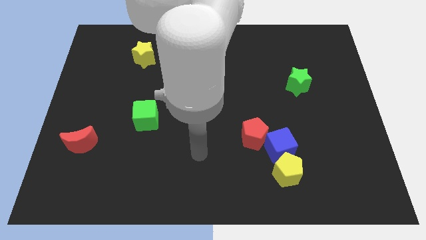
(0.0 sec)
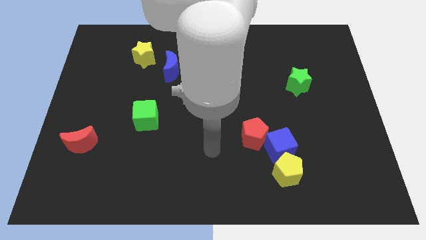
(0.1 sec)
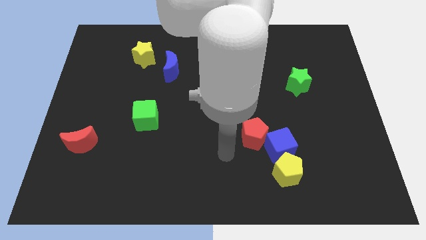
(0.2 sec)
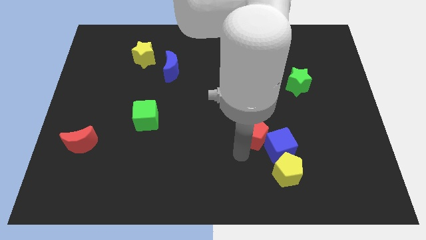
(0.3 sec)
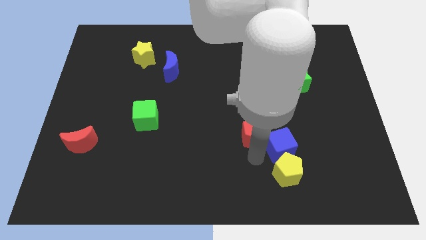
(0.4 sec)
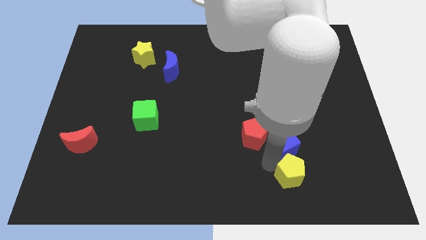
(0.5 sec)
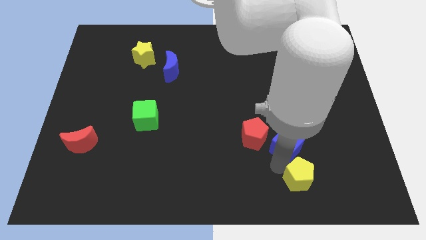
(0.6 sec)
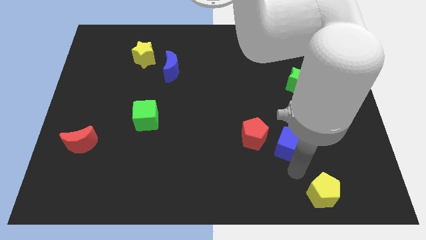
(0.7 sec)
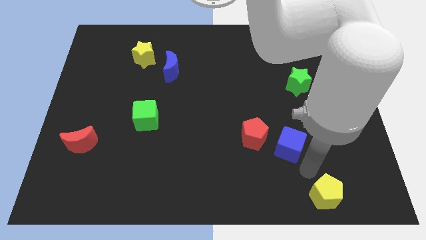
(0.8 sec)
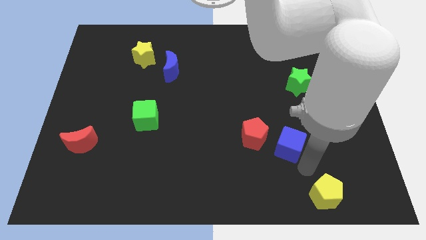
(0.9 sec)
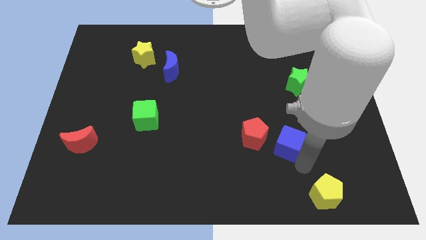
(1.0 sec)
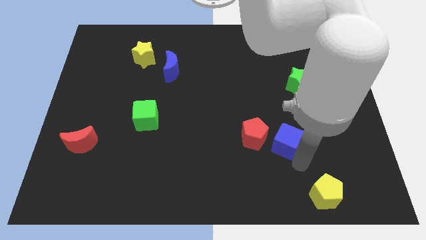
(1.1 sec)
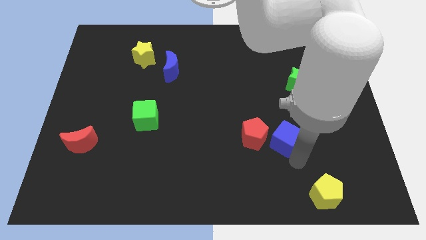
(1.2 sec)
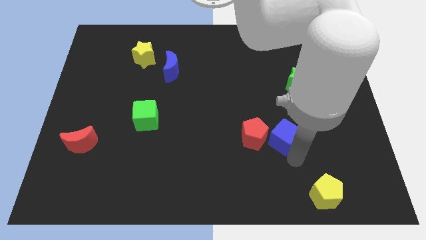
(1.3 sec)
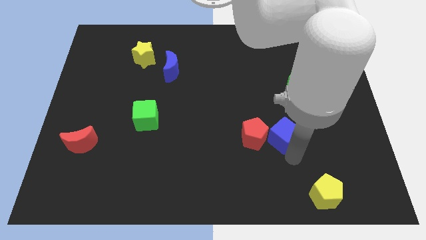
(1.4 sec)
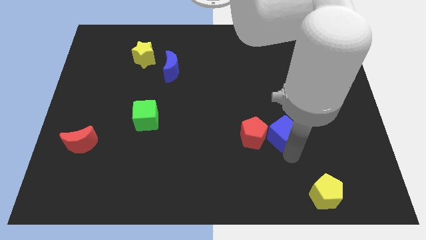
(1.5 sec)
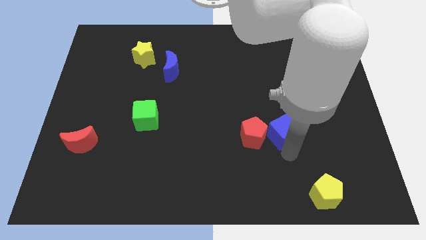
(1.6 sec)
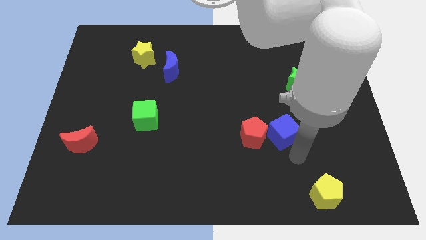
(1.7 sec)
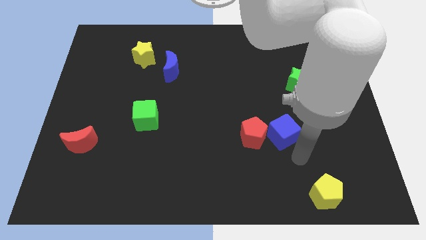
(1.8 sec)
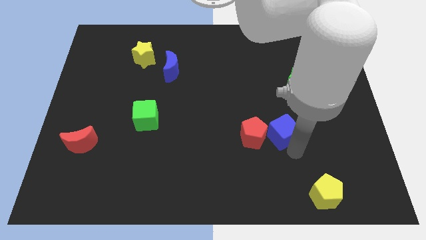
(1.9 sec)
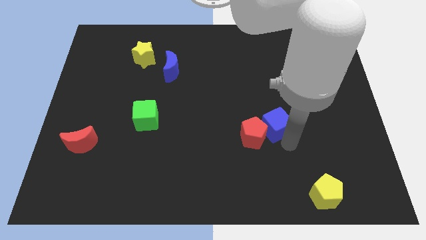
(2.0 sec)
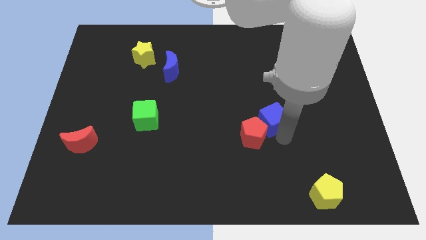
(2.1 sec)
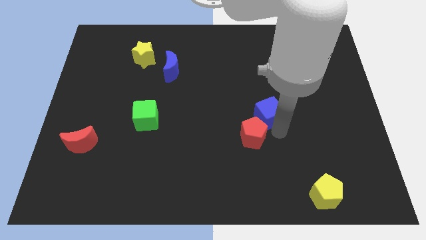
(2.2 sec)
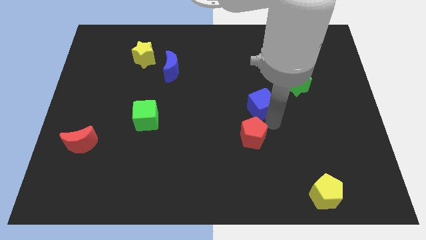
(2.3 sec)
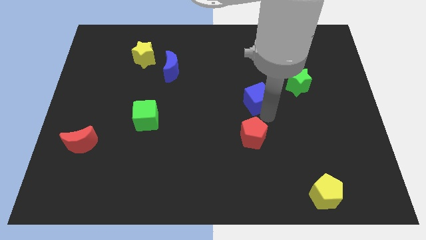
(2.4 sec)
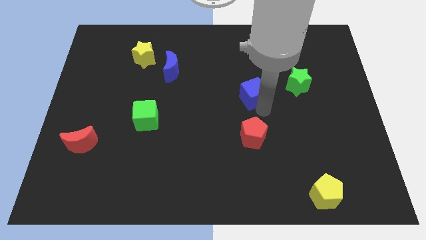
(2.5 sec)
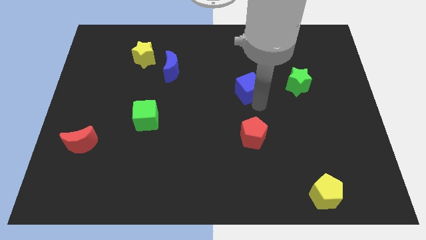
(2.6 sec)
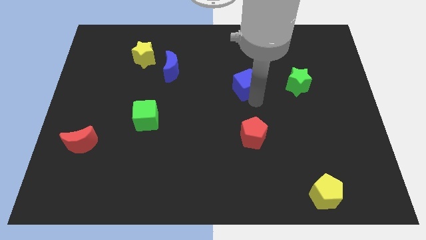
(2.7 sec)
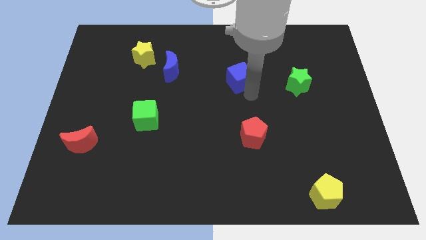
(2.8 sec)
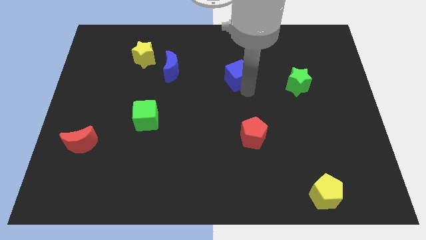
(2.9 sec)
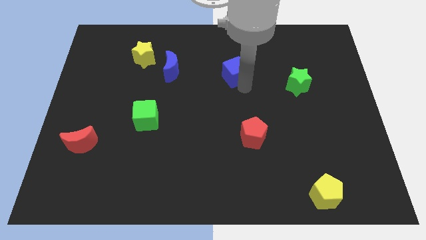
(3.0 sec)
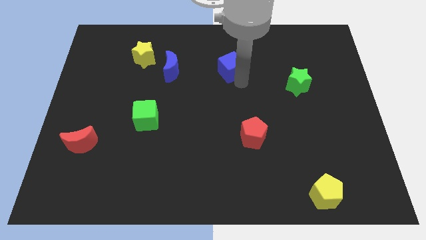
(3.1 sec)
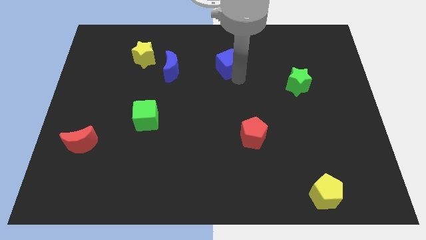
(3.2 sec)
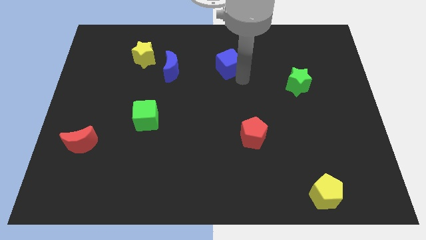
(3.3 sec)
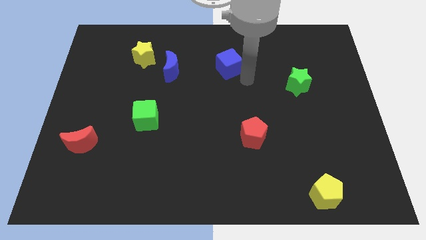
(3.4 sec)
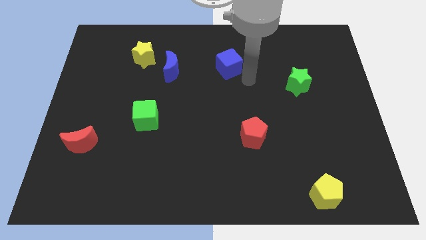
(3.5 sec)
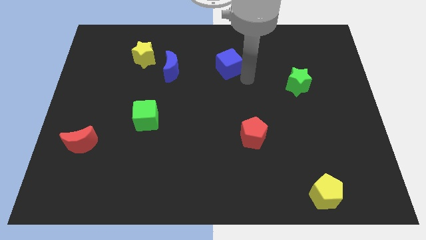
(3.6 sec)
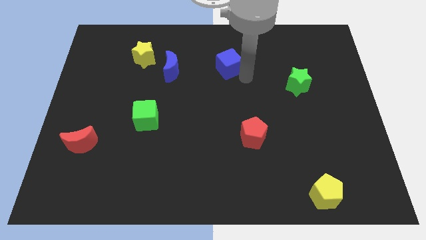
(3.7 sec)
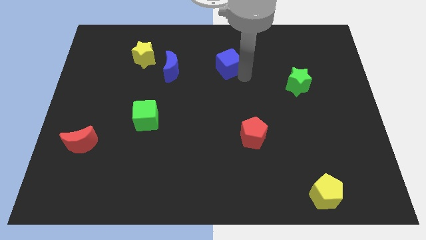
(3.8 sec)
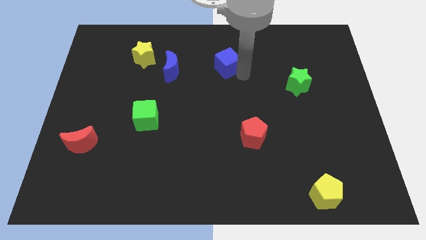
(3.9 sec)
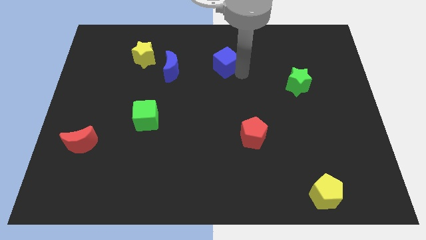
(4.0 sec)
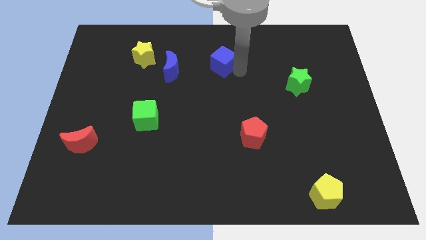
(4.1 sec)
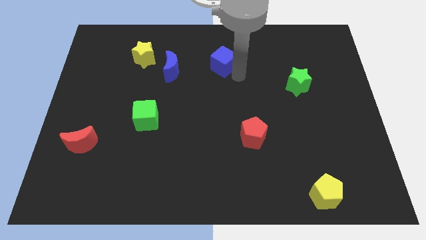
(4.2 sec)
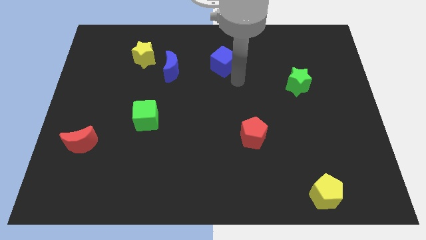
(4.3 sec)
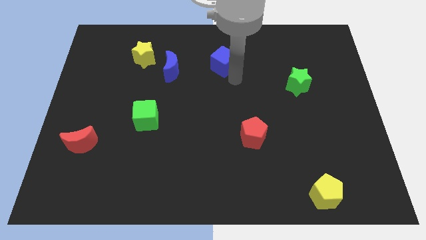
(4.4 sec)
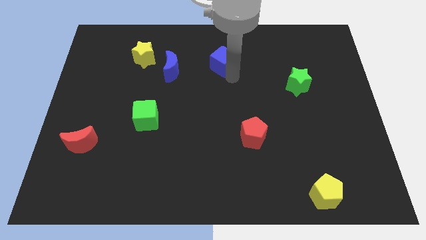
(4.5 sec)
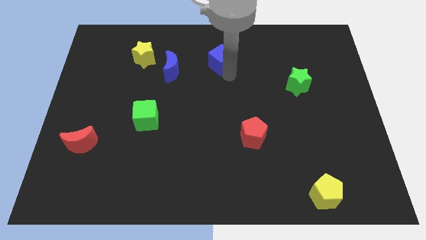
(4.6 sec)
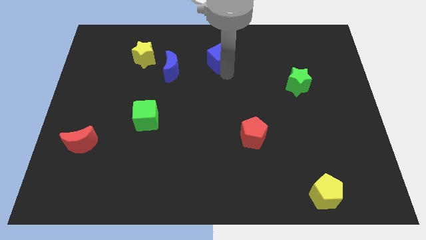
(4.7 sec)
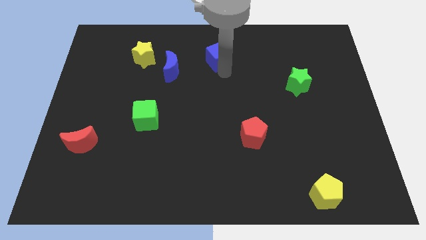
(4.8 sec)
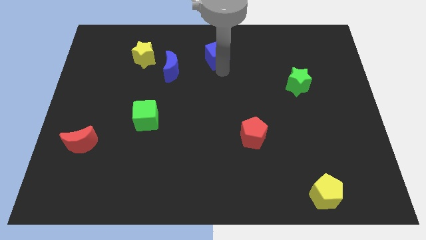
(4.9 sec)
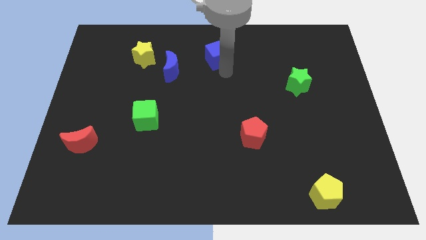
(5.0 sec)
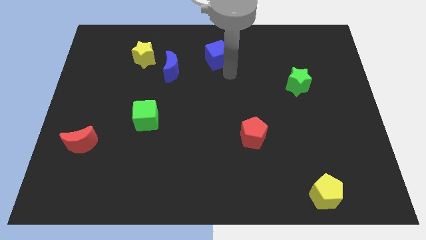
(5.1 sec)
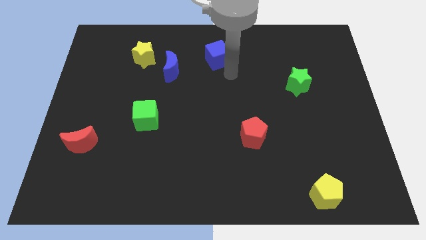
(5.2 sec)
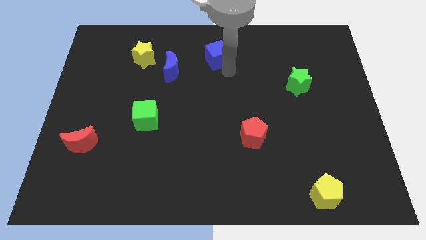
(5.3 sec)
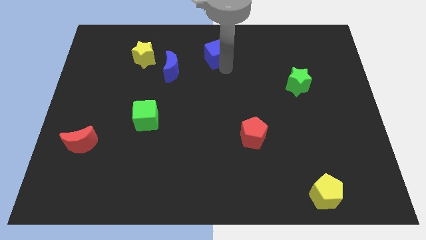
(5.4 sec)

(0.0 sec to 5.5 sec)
put the blue cube to the top
